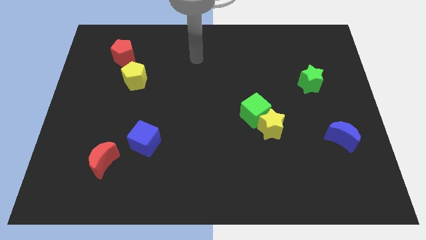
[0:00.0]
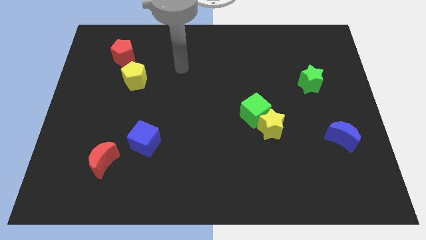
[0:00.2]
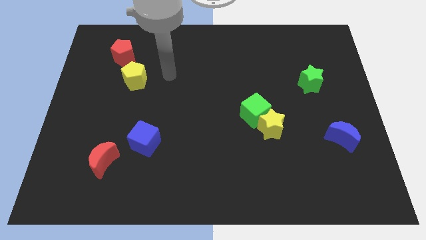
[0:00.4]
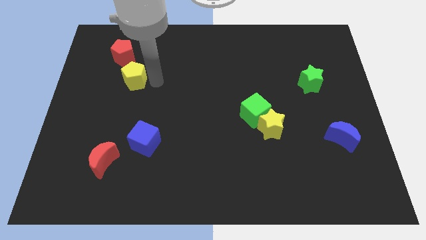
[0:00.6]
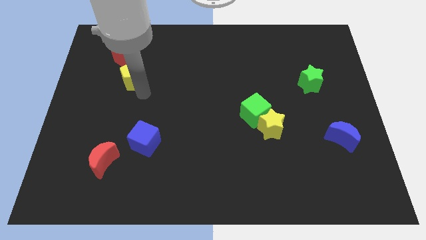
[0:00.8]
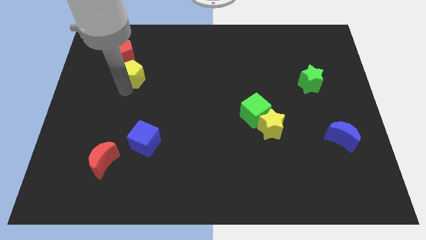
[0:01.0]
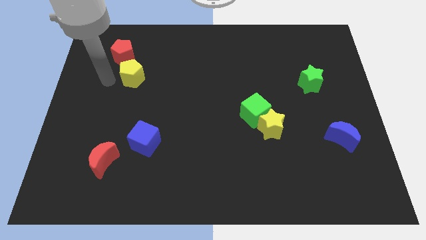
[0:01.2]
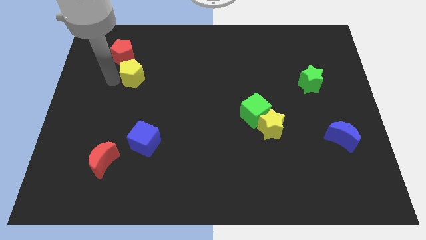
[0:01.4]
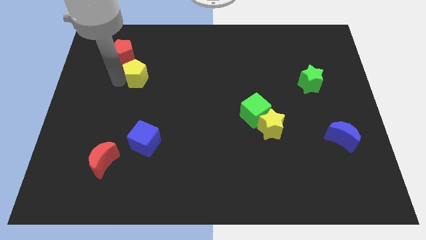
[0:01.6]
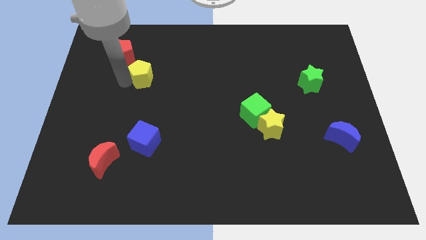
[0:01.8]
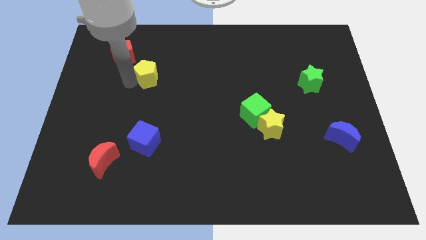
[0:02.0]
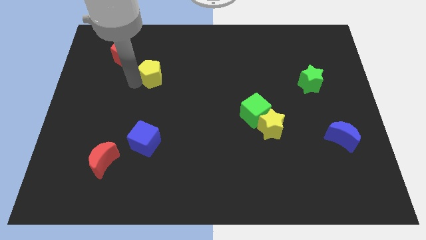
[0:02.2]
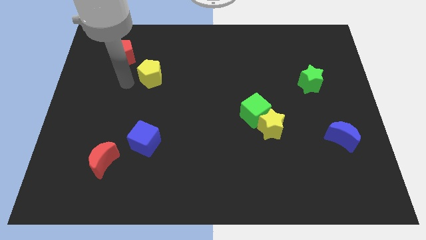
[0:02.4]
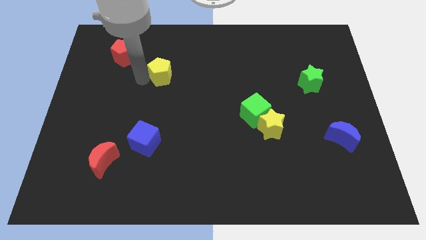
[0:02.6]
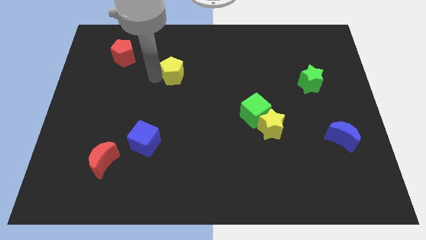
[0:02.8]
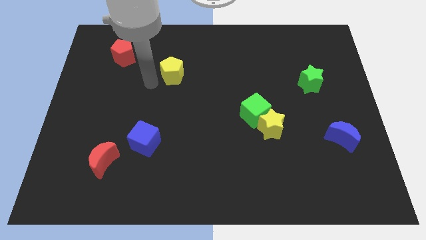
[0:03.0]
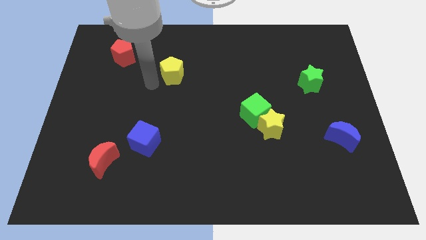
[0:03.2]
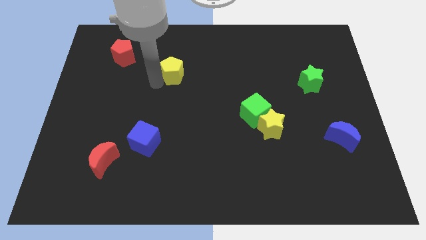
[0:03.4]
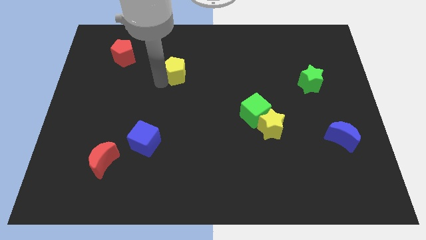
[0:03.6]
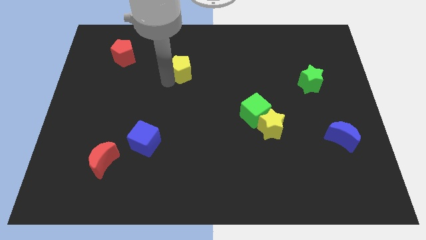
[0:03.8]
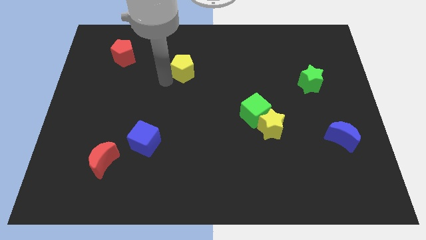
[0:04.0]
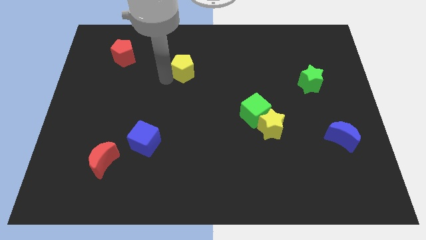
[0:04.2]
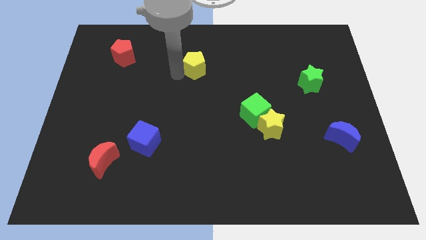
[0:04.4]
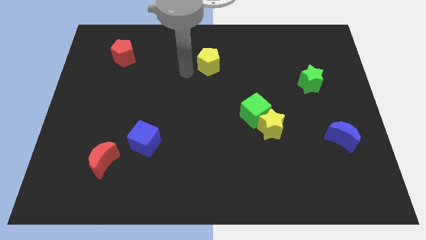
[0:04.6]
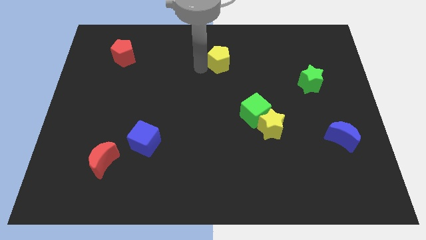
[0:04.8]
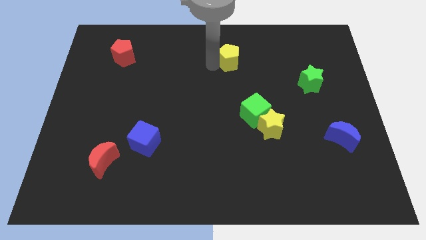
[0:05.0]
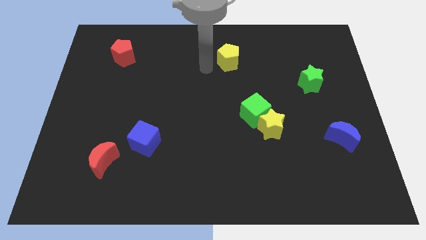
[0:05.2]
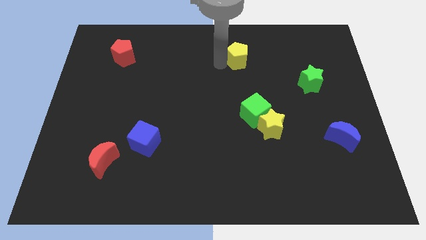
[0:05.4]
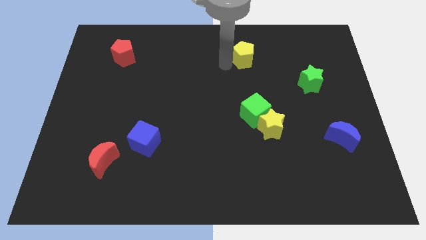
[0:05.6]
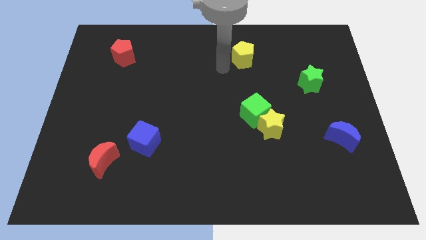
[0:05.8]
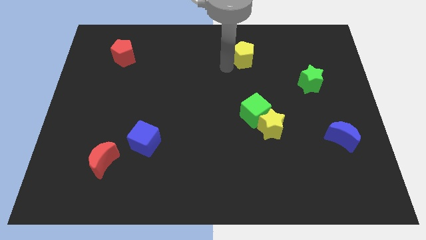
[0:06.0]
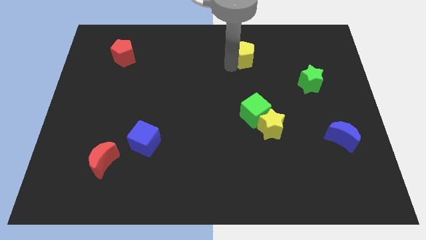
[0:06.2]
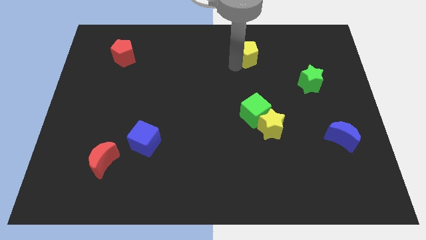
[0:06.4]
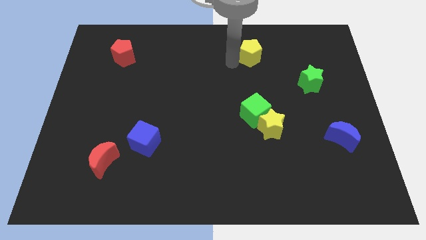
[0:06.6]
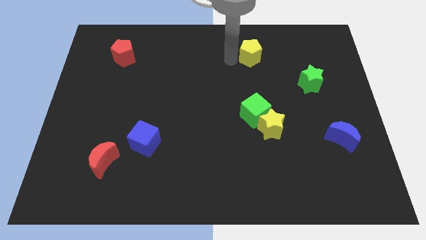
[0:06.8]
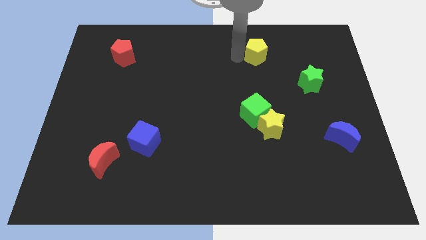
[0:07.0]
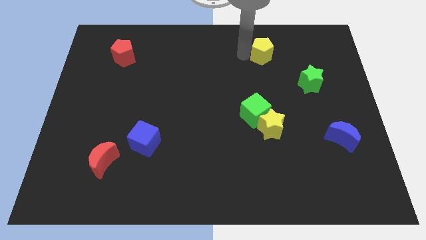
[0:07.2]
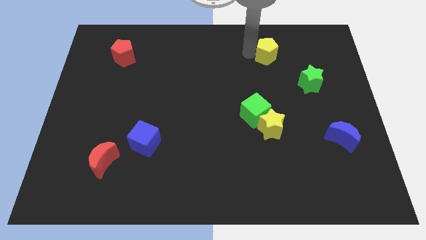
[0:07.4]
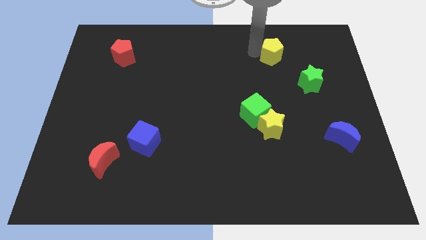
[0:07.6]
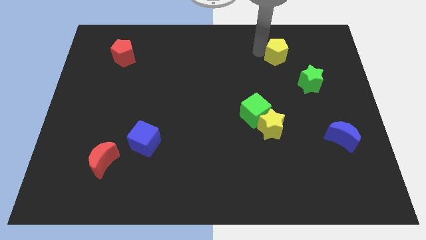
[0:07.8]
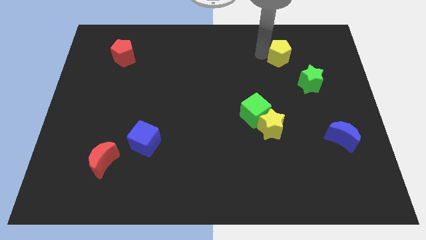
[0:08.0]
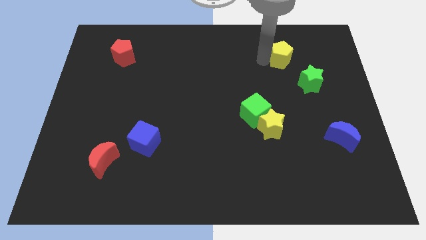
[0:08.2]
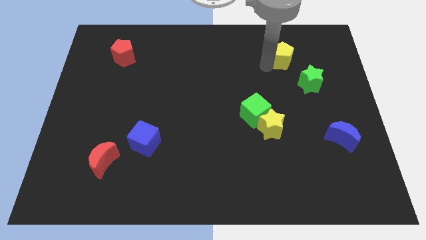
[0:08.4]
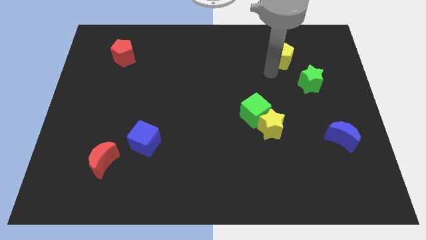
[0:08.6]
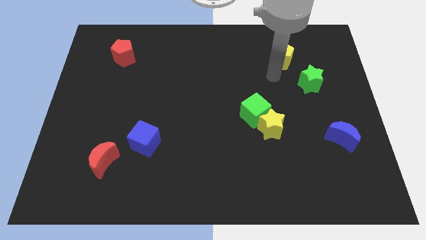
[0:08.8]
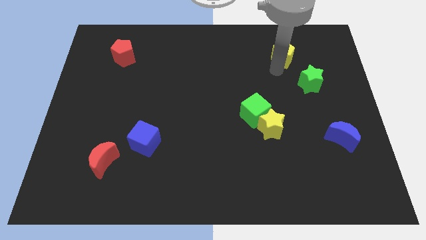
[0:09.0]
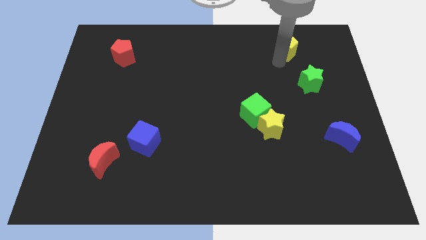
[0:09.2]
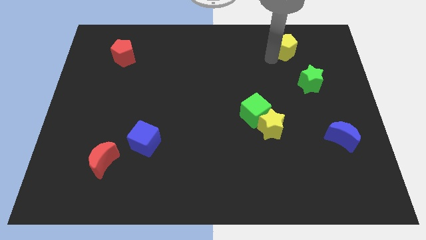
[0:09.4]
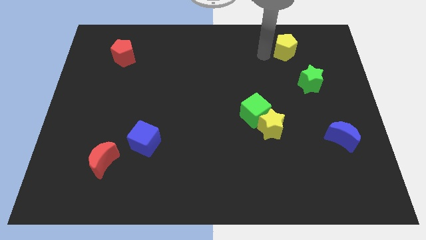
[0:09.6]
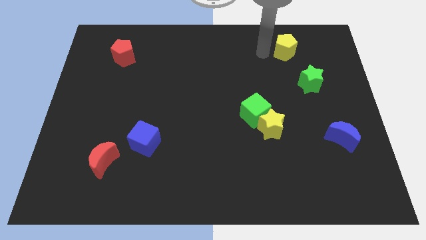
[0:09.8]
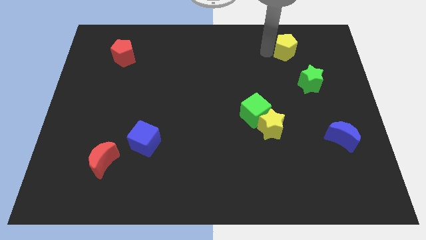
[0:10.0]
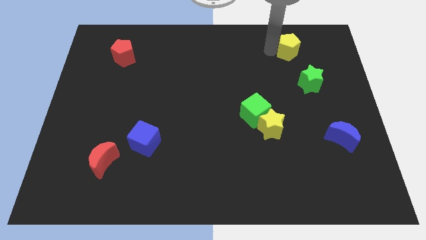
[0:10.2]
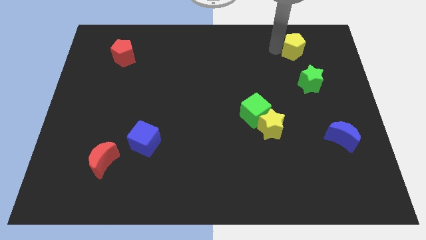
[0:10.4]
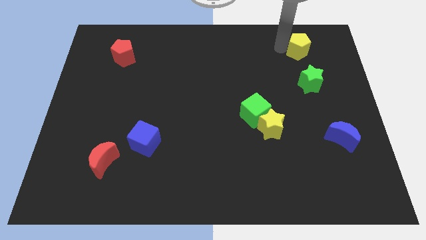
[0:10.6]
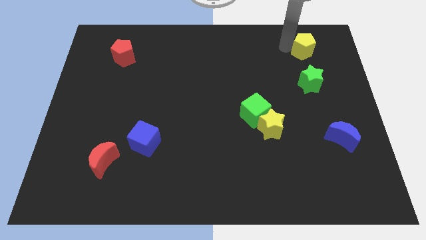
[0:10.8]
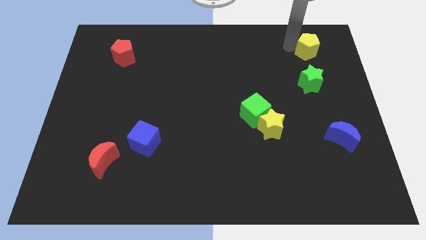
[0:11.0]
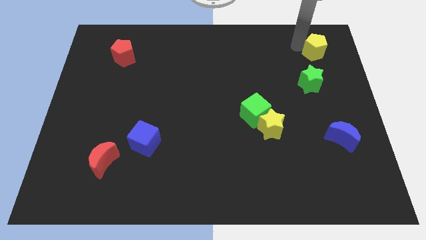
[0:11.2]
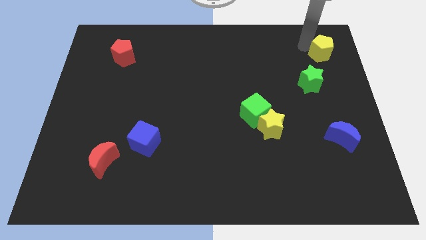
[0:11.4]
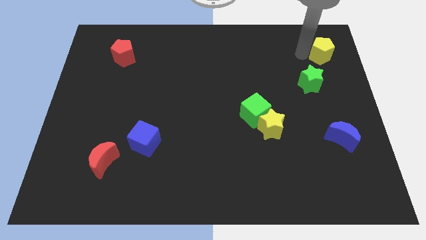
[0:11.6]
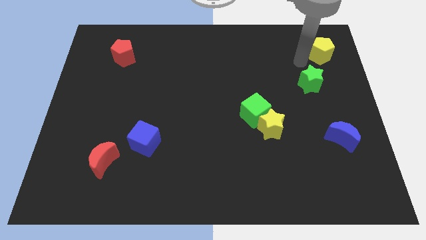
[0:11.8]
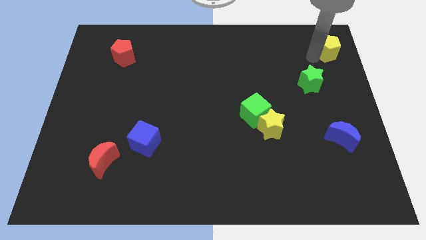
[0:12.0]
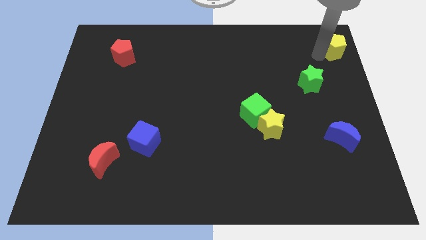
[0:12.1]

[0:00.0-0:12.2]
push the yellow pentagon to the upper right corner
